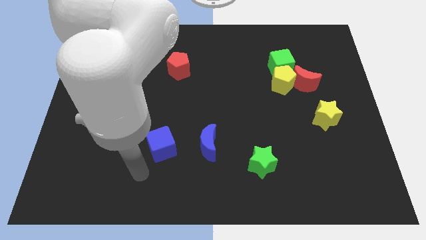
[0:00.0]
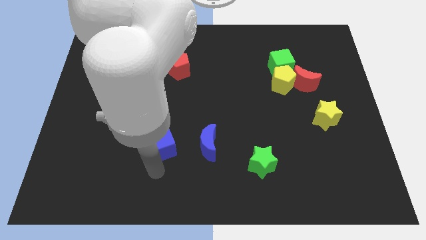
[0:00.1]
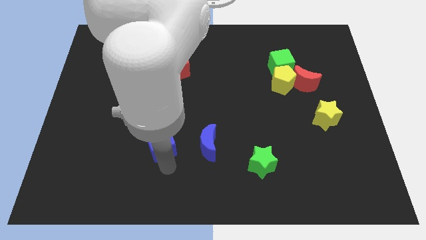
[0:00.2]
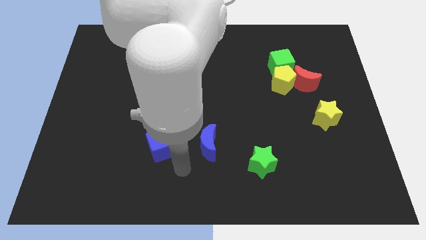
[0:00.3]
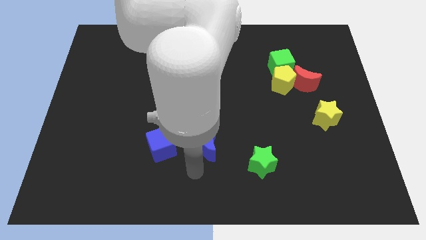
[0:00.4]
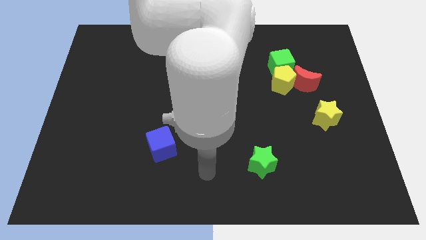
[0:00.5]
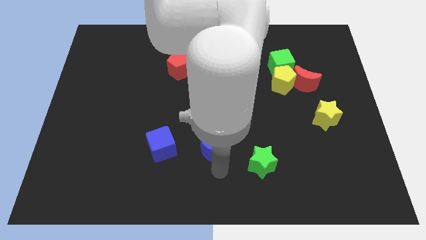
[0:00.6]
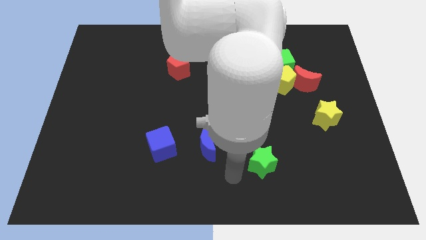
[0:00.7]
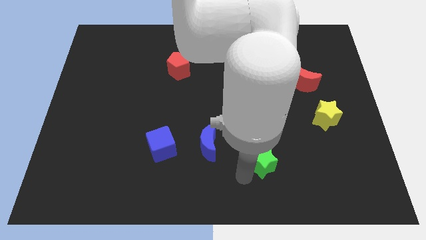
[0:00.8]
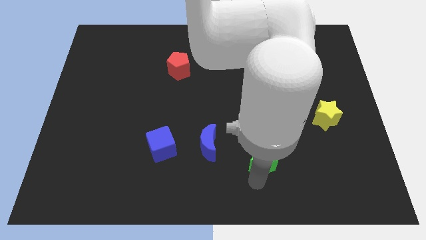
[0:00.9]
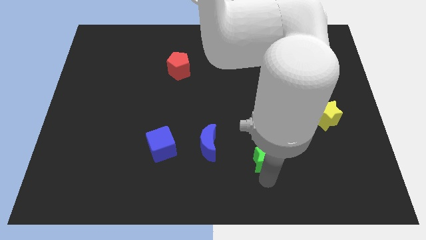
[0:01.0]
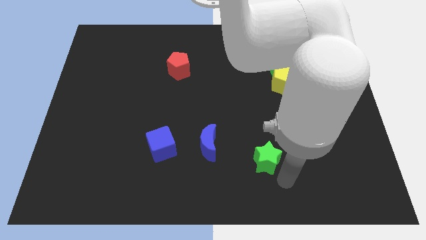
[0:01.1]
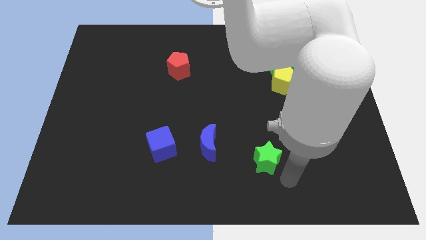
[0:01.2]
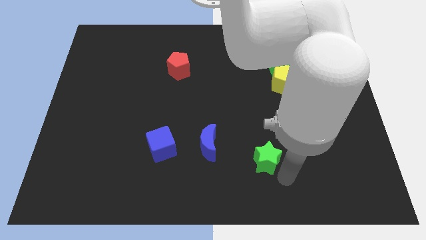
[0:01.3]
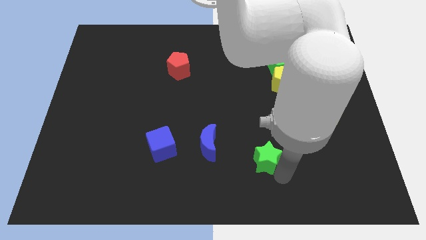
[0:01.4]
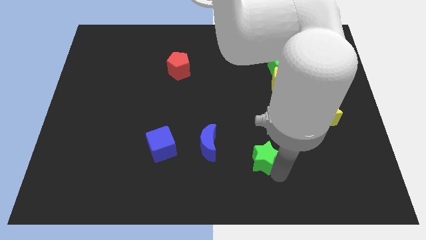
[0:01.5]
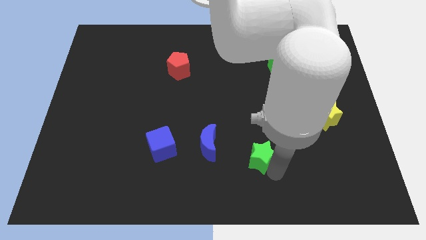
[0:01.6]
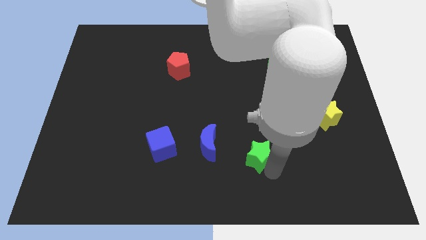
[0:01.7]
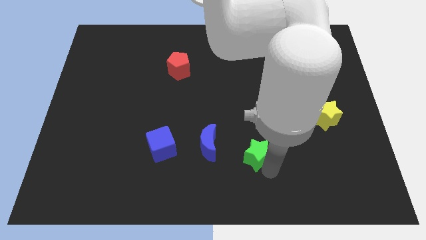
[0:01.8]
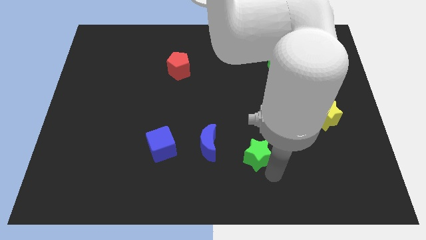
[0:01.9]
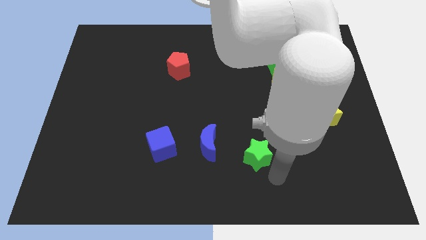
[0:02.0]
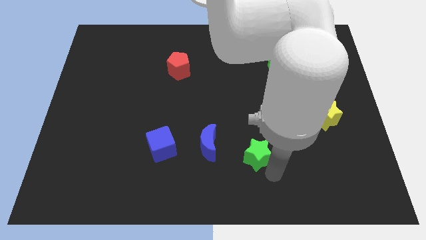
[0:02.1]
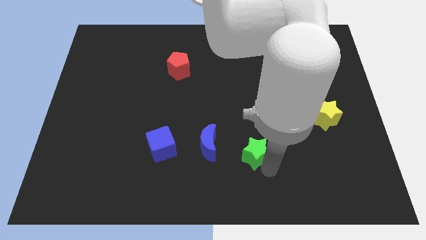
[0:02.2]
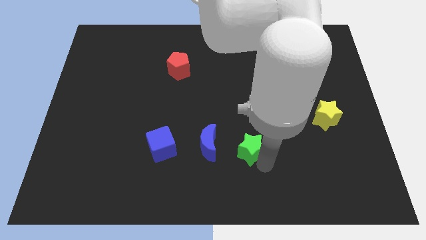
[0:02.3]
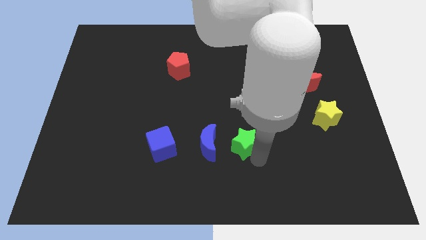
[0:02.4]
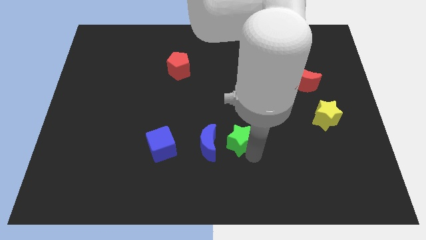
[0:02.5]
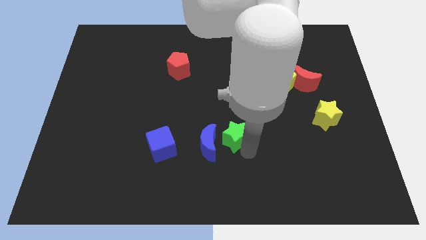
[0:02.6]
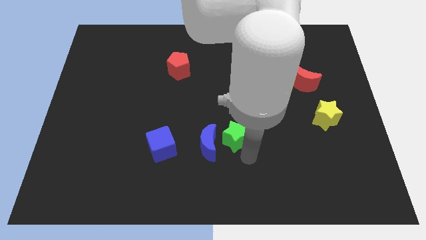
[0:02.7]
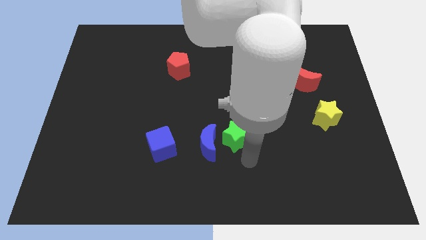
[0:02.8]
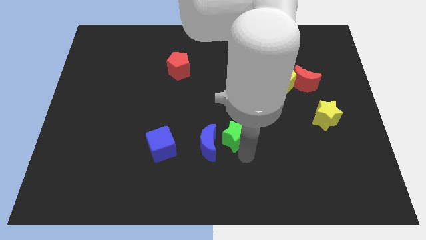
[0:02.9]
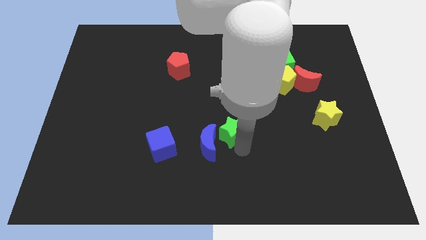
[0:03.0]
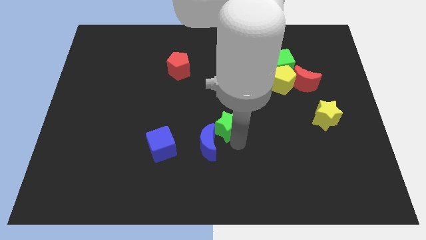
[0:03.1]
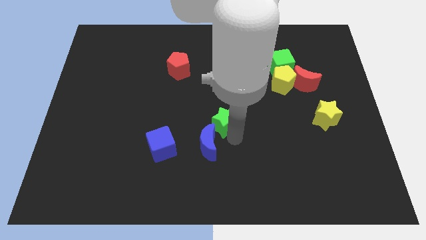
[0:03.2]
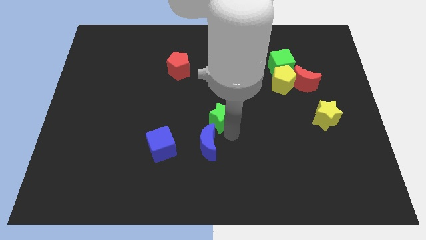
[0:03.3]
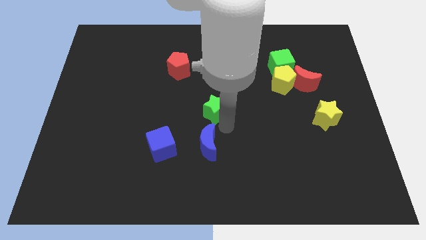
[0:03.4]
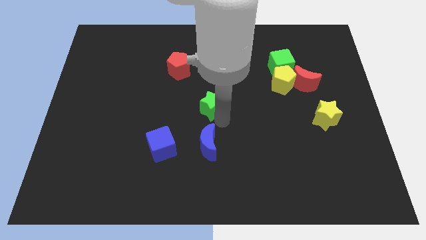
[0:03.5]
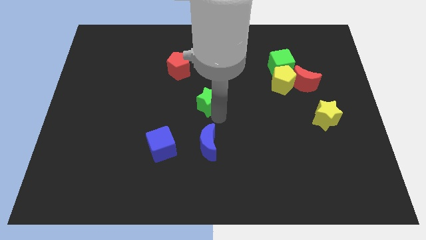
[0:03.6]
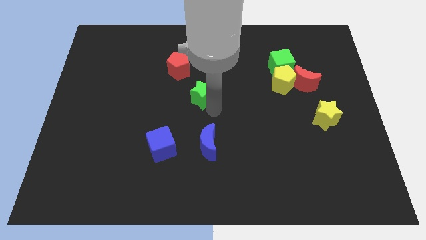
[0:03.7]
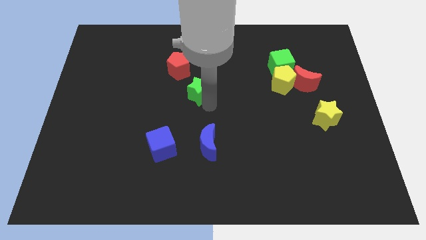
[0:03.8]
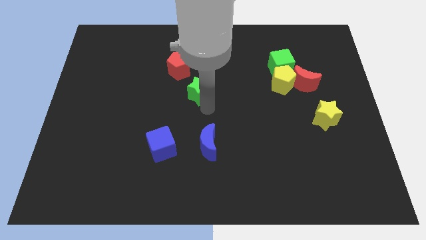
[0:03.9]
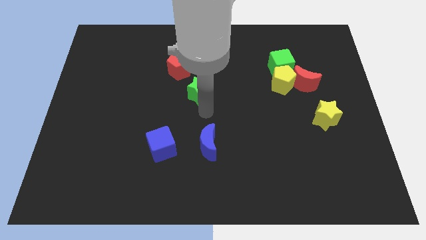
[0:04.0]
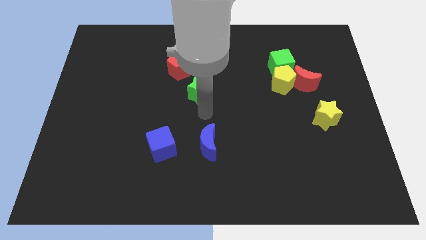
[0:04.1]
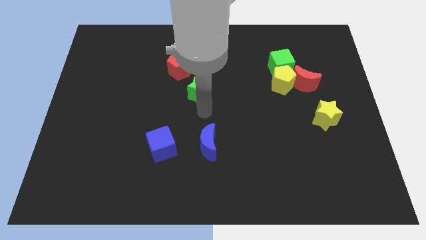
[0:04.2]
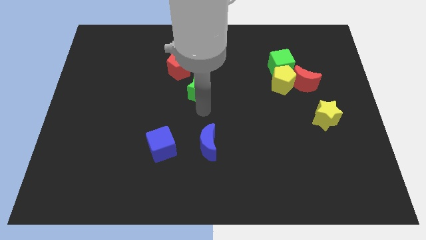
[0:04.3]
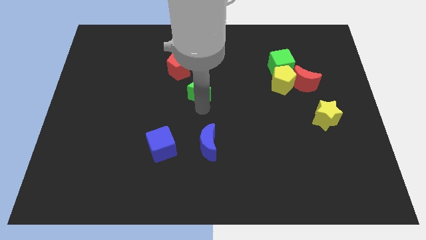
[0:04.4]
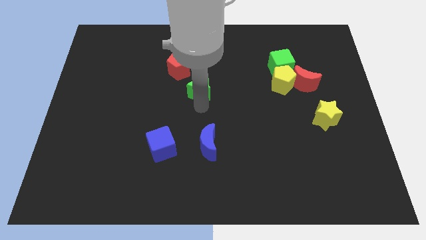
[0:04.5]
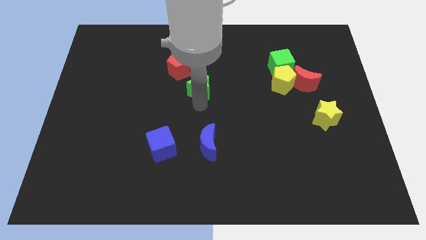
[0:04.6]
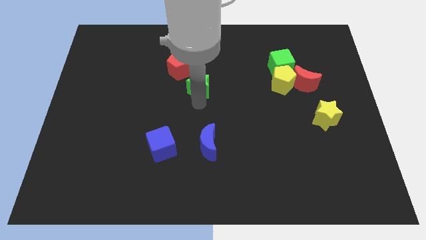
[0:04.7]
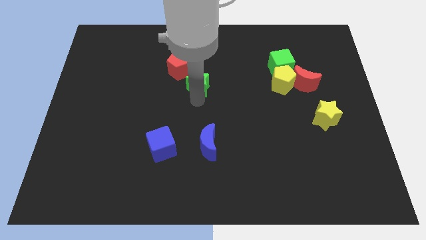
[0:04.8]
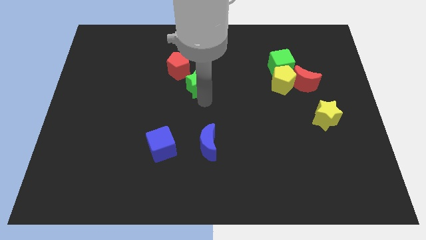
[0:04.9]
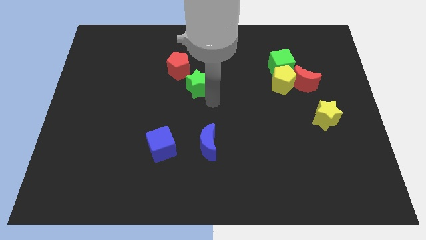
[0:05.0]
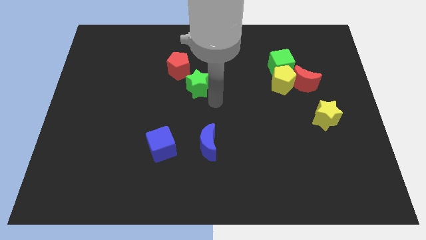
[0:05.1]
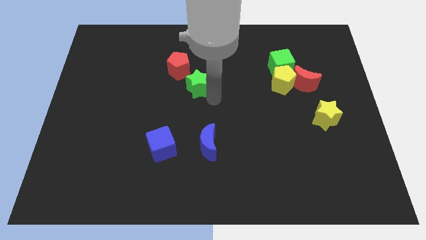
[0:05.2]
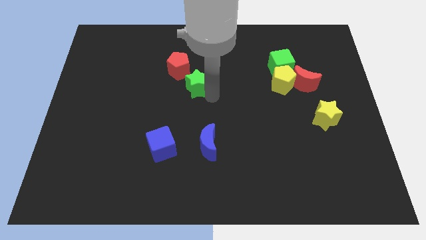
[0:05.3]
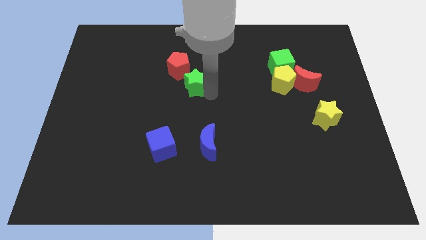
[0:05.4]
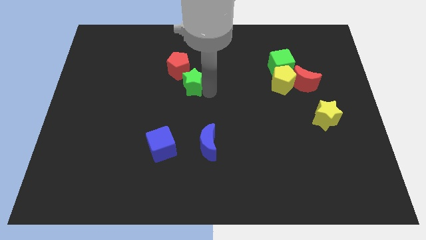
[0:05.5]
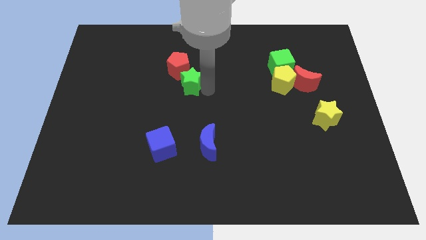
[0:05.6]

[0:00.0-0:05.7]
push the green star next to the red pentagon

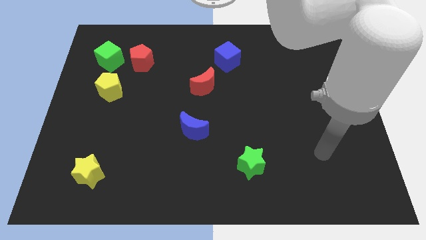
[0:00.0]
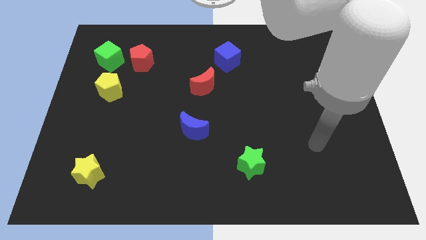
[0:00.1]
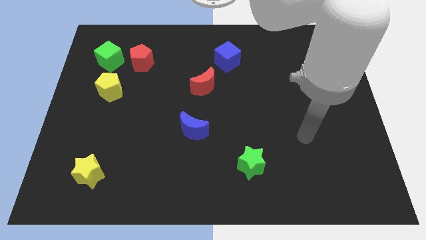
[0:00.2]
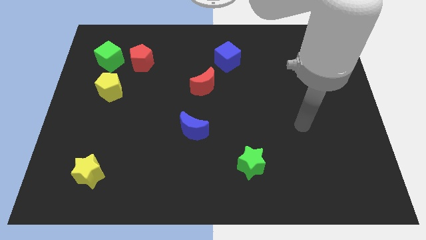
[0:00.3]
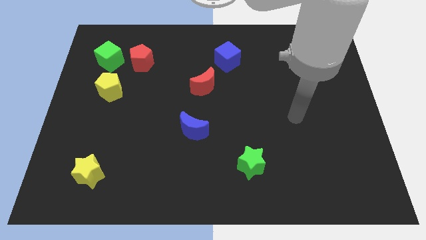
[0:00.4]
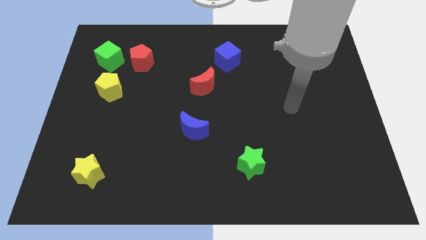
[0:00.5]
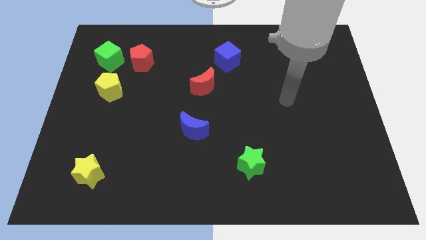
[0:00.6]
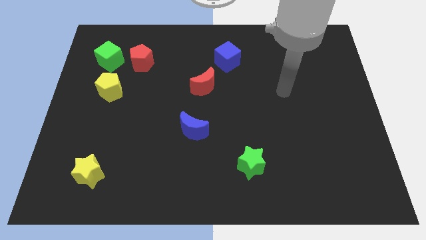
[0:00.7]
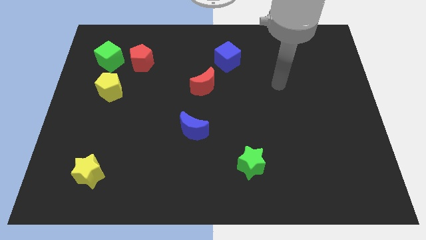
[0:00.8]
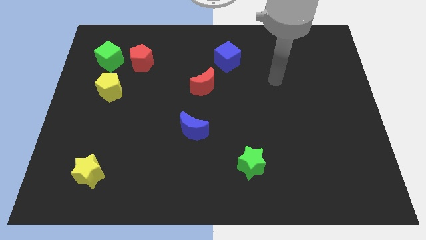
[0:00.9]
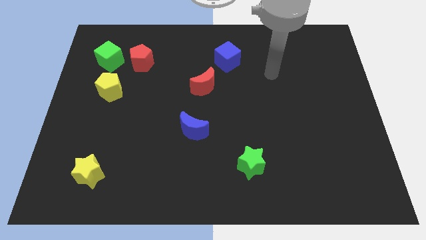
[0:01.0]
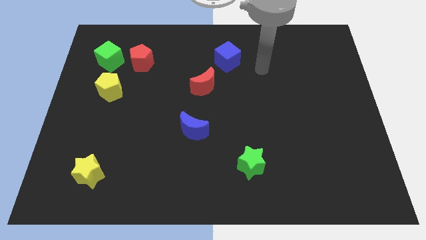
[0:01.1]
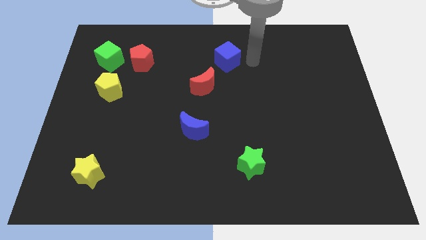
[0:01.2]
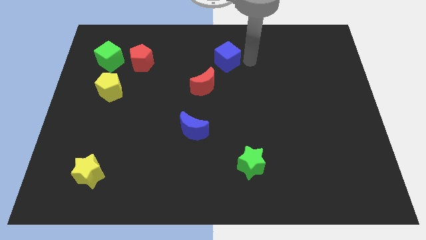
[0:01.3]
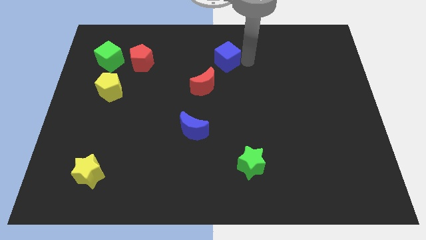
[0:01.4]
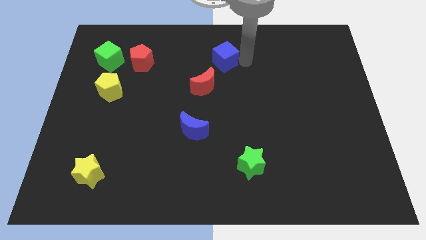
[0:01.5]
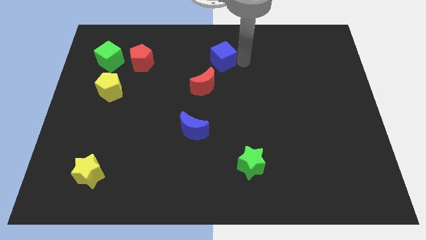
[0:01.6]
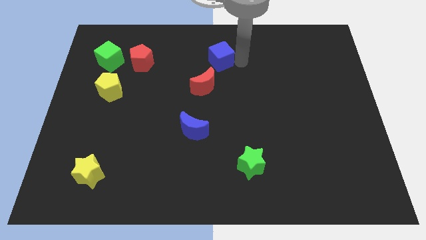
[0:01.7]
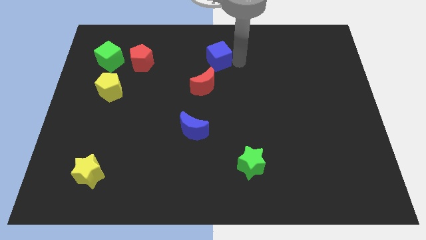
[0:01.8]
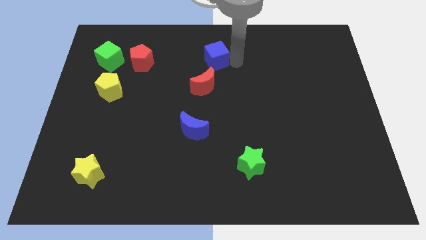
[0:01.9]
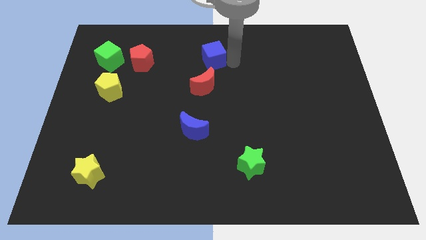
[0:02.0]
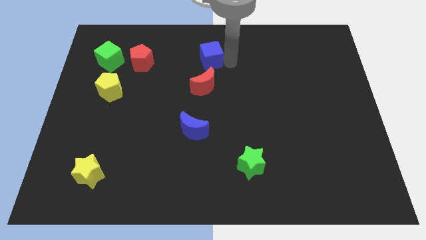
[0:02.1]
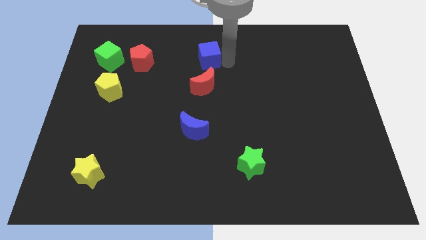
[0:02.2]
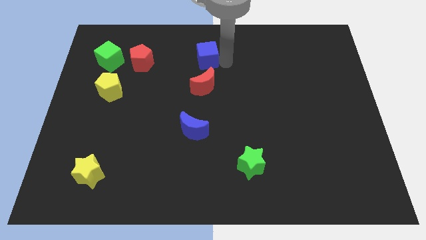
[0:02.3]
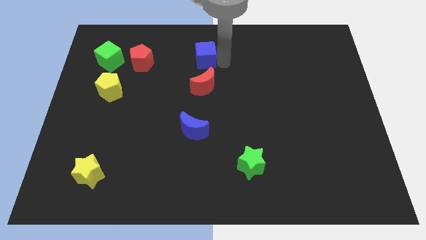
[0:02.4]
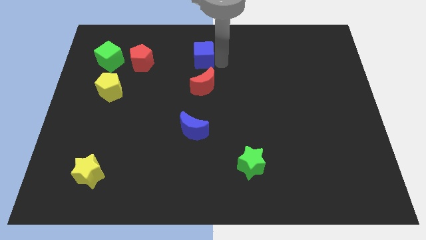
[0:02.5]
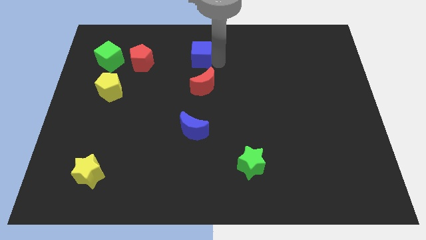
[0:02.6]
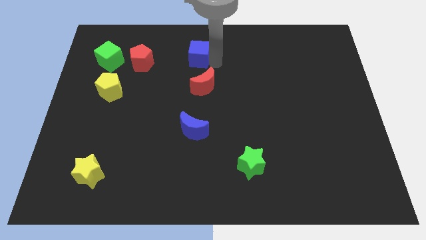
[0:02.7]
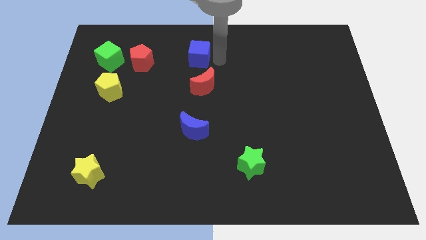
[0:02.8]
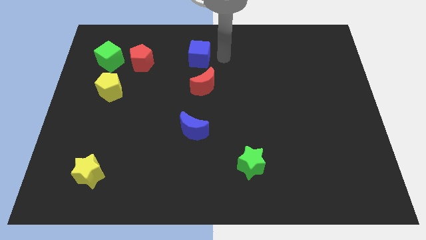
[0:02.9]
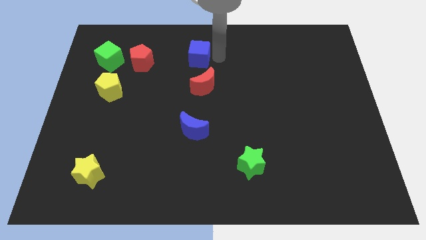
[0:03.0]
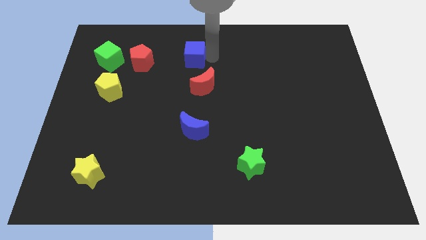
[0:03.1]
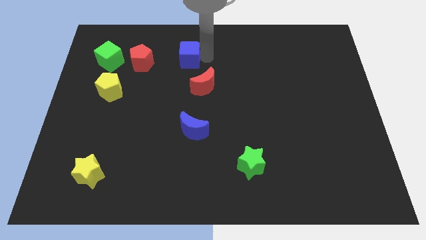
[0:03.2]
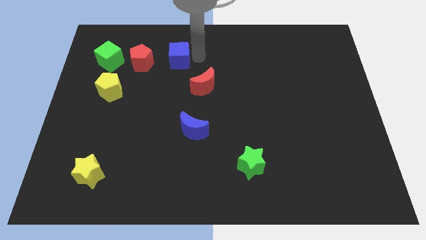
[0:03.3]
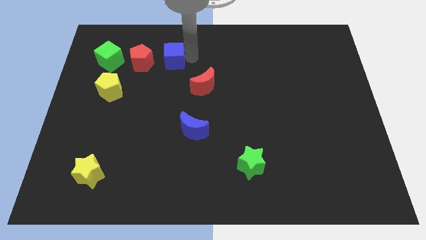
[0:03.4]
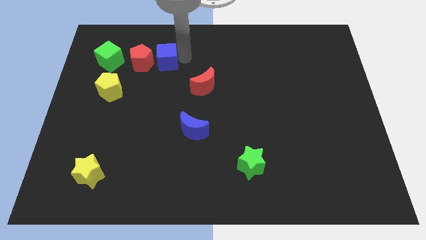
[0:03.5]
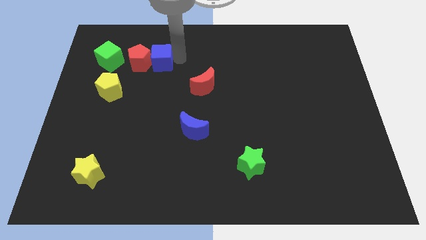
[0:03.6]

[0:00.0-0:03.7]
put the blue cube next to the red pentagon
